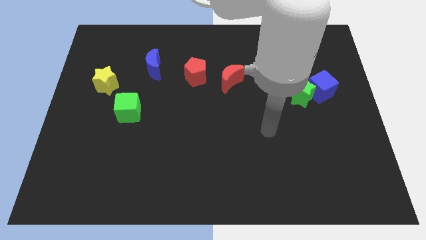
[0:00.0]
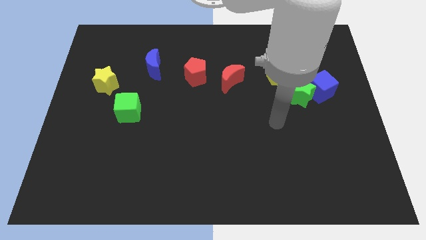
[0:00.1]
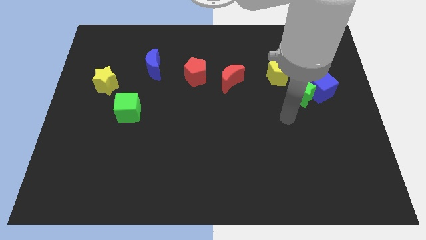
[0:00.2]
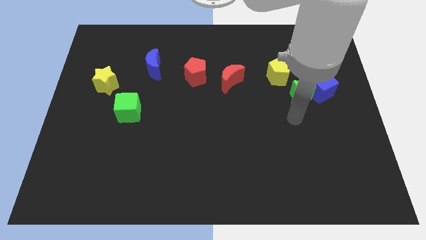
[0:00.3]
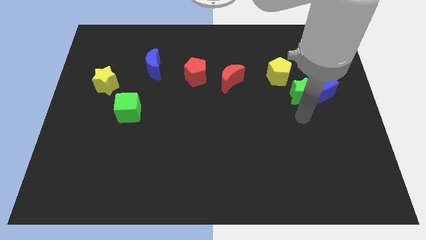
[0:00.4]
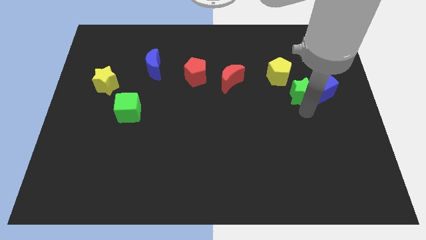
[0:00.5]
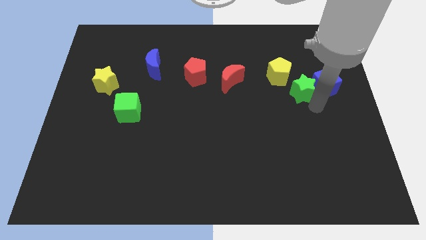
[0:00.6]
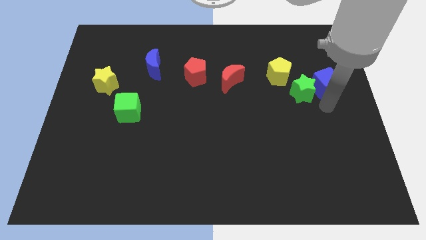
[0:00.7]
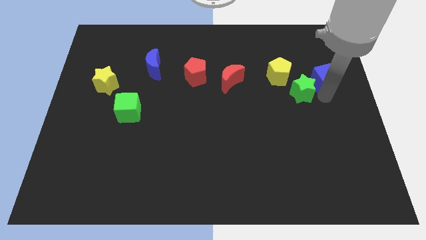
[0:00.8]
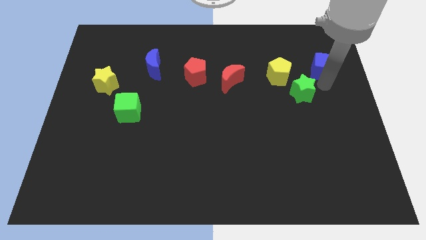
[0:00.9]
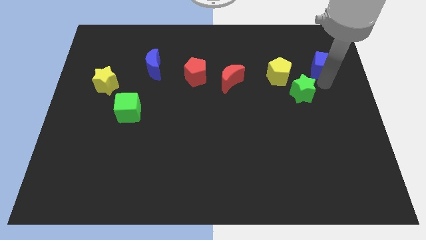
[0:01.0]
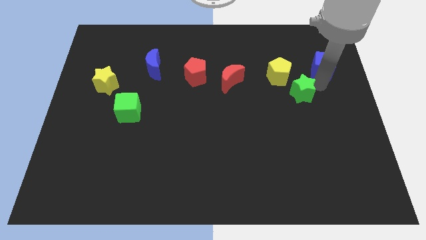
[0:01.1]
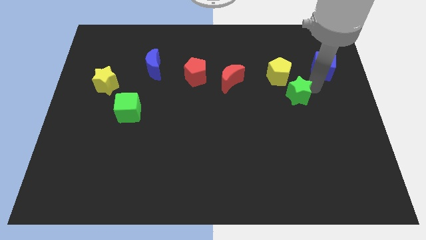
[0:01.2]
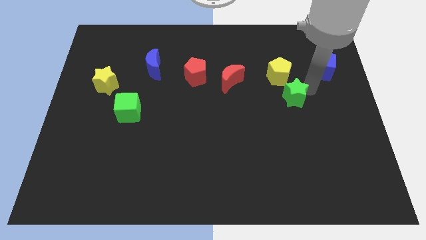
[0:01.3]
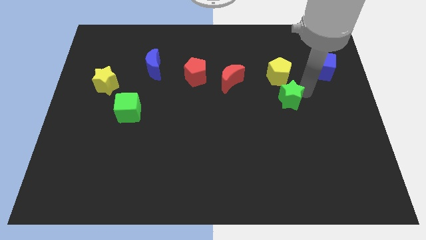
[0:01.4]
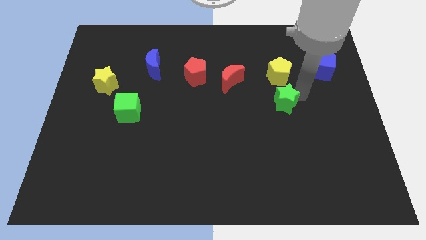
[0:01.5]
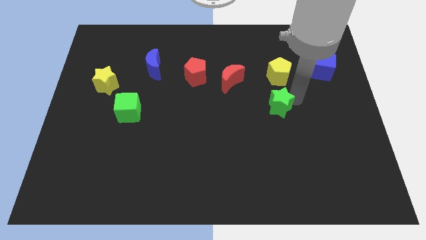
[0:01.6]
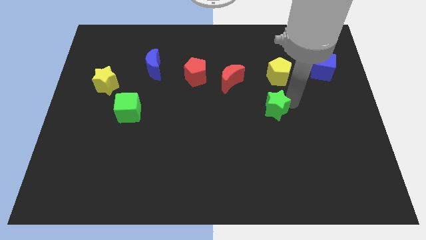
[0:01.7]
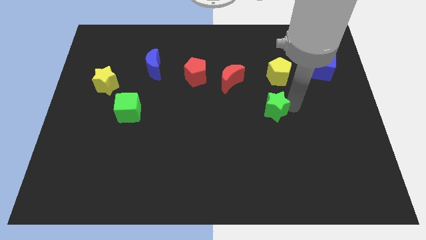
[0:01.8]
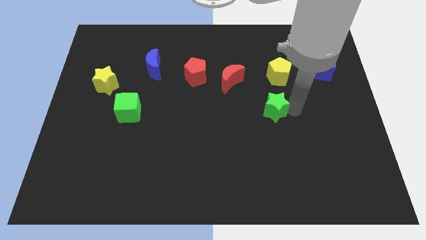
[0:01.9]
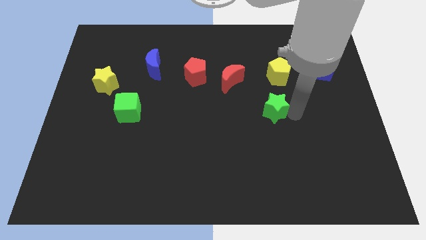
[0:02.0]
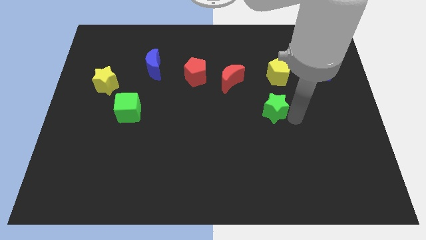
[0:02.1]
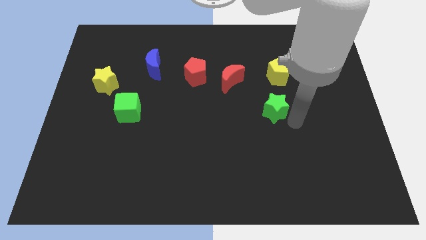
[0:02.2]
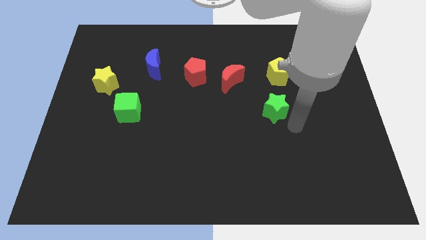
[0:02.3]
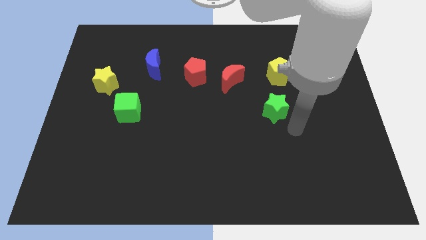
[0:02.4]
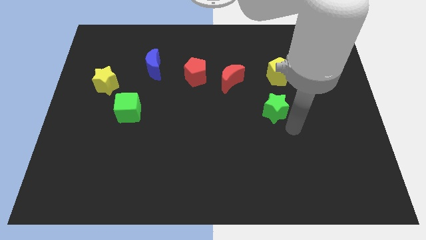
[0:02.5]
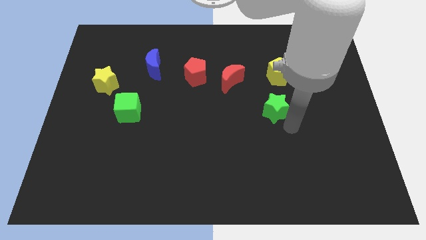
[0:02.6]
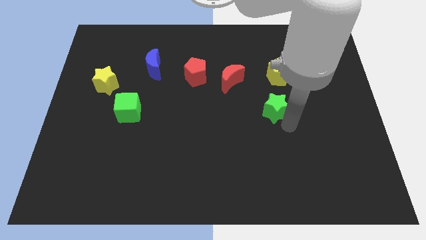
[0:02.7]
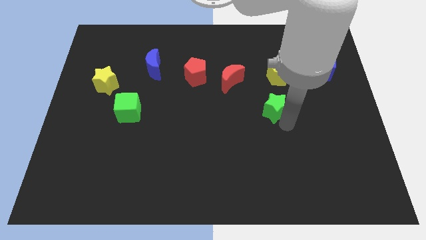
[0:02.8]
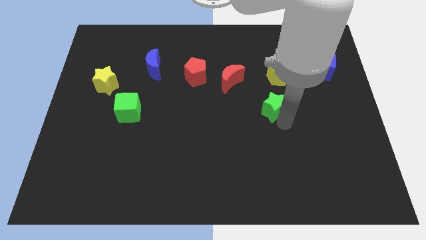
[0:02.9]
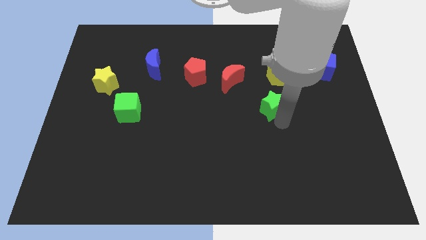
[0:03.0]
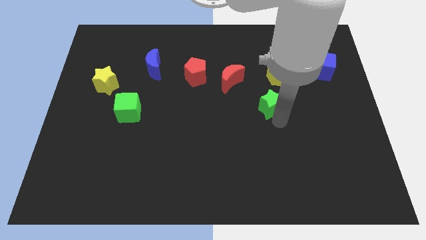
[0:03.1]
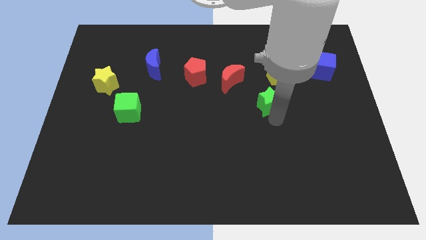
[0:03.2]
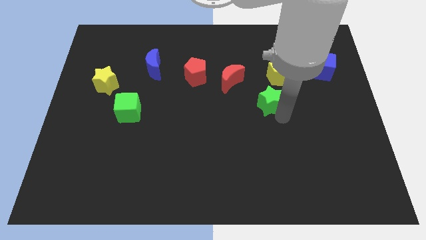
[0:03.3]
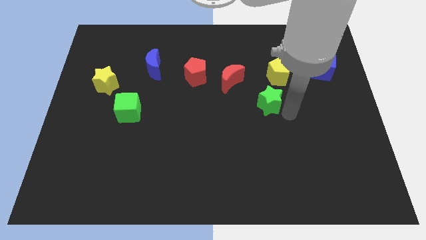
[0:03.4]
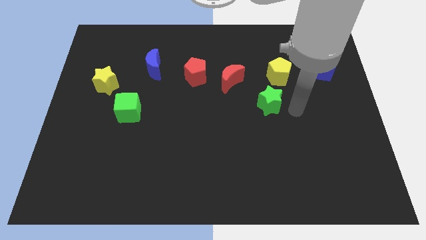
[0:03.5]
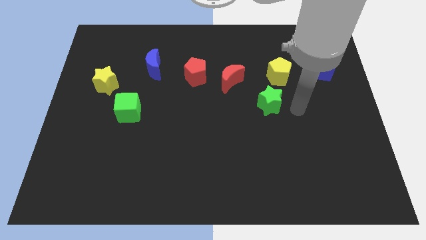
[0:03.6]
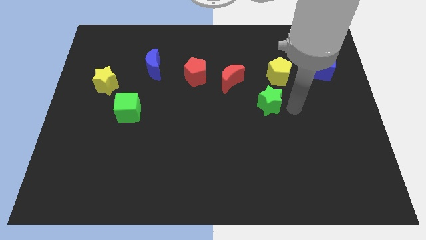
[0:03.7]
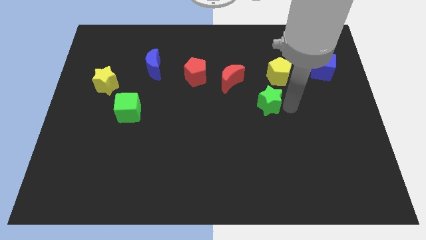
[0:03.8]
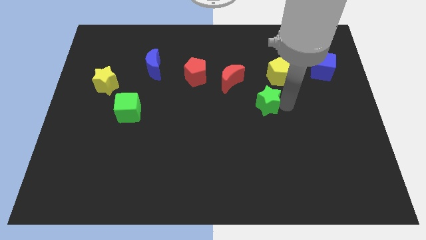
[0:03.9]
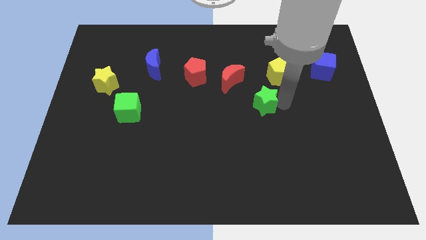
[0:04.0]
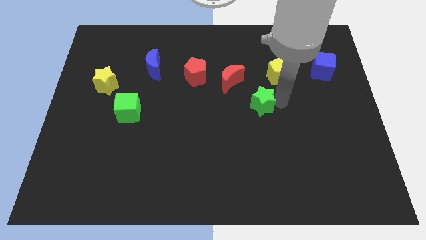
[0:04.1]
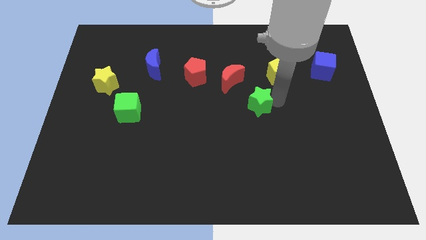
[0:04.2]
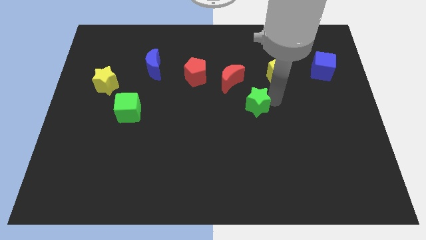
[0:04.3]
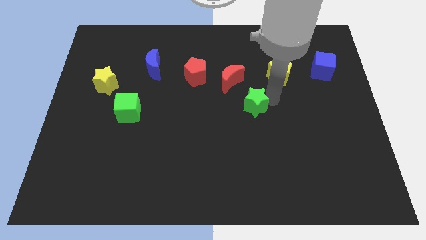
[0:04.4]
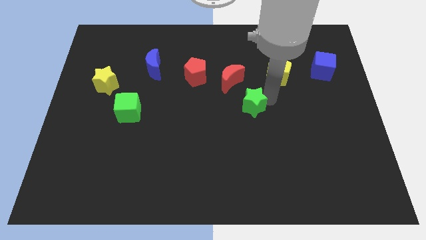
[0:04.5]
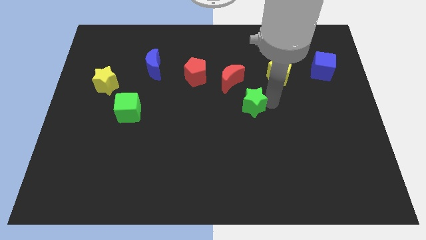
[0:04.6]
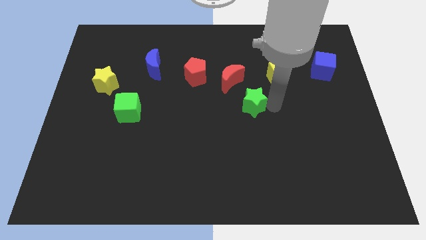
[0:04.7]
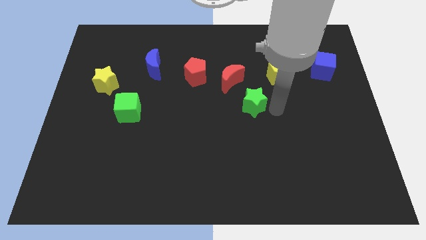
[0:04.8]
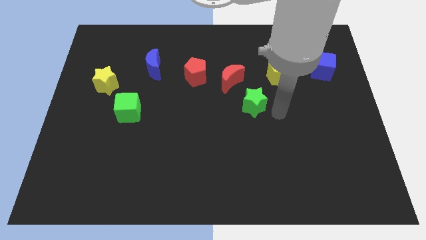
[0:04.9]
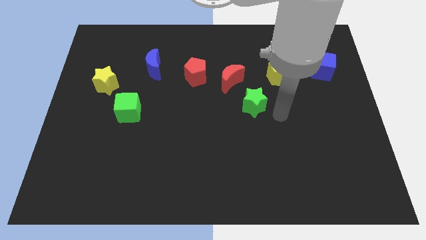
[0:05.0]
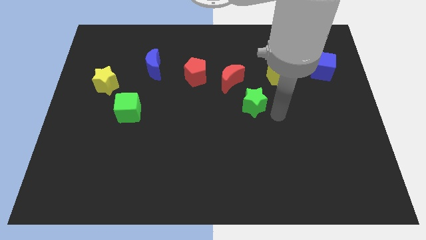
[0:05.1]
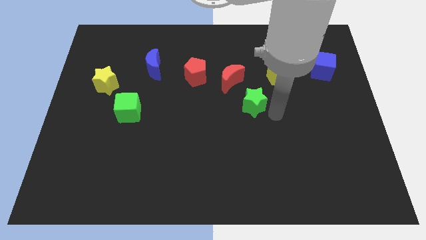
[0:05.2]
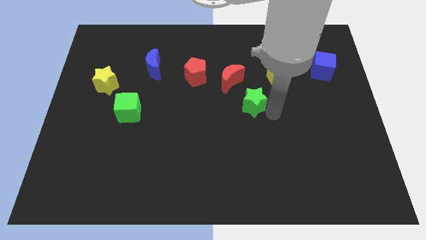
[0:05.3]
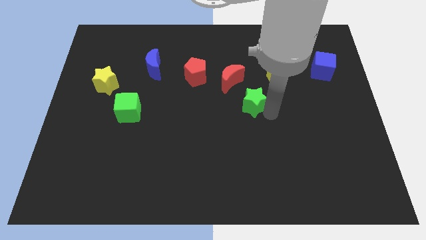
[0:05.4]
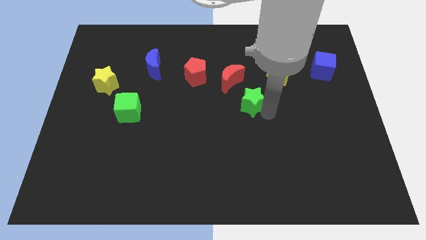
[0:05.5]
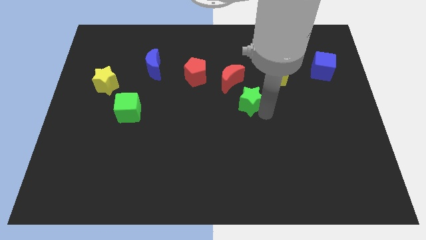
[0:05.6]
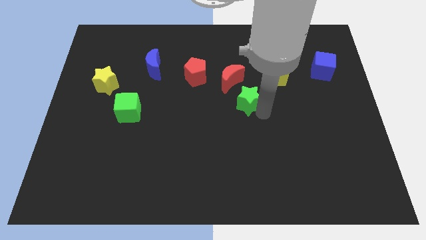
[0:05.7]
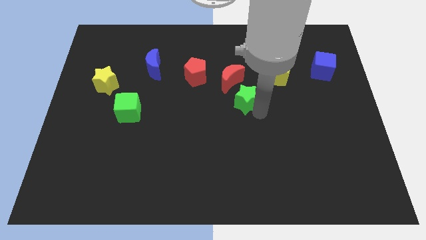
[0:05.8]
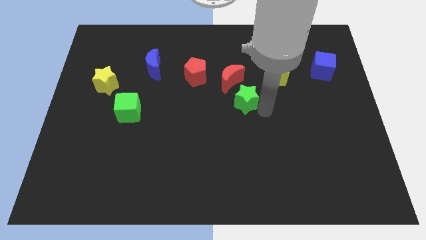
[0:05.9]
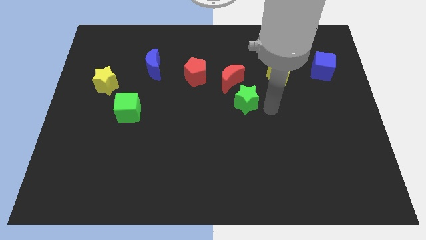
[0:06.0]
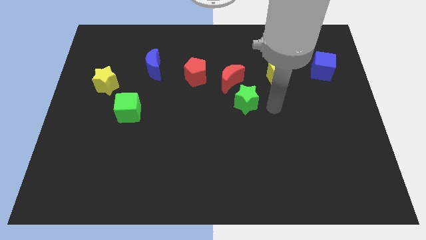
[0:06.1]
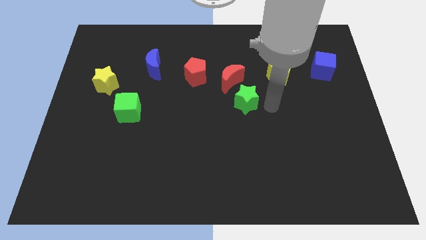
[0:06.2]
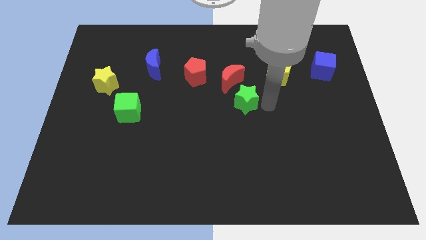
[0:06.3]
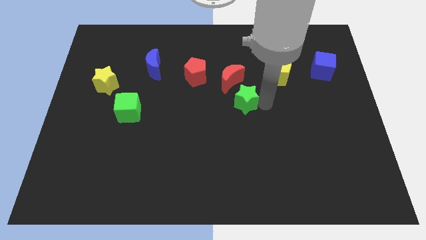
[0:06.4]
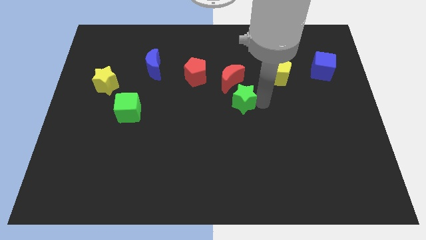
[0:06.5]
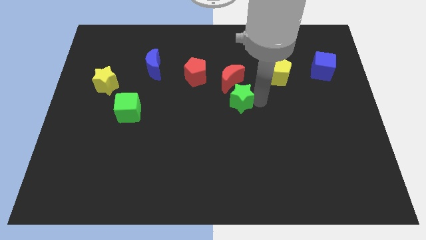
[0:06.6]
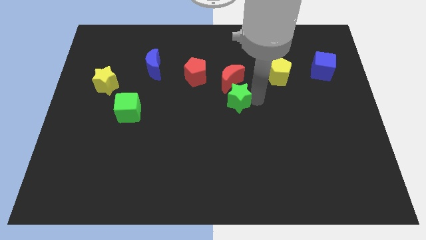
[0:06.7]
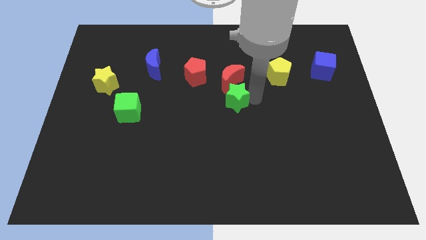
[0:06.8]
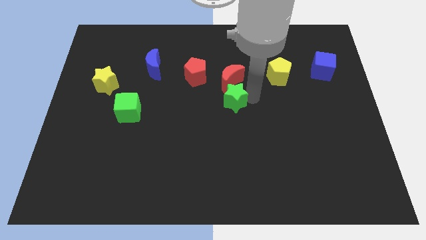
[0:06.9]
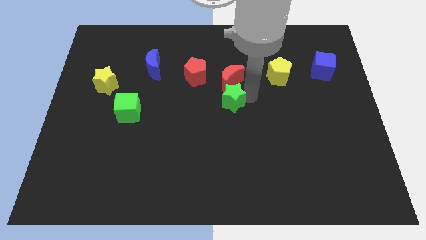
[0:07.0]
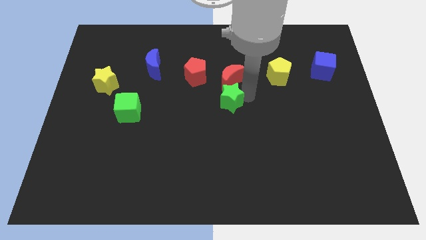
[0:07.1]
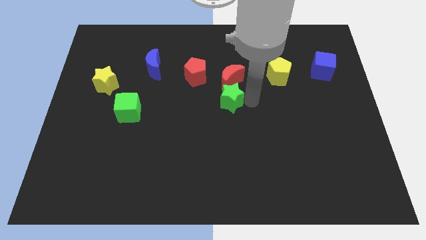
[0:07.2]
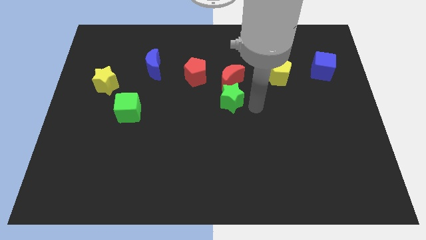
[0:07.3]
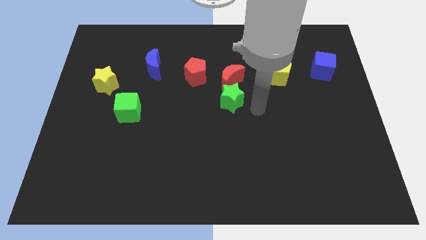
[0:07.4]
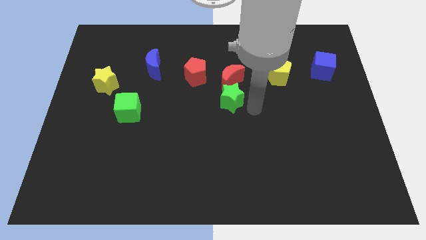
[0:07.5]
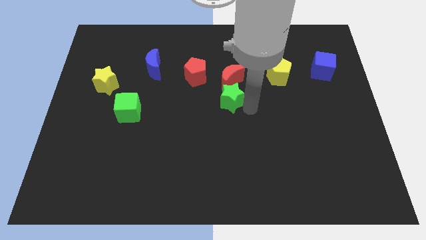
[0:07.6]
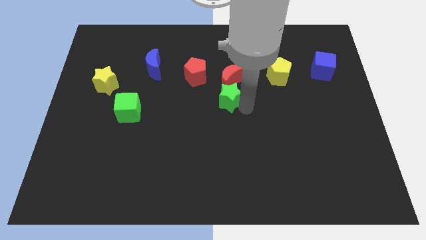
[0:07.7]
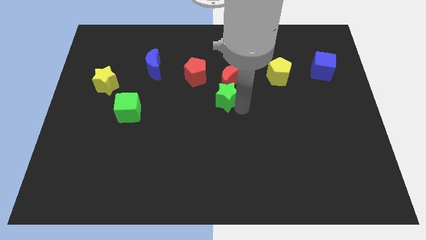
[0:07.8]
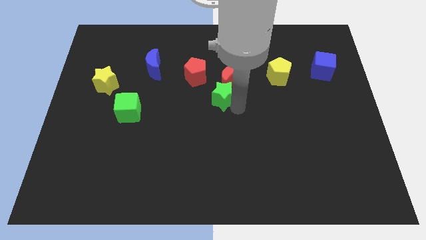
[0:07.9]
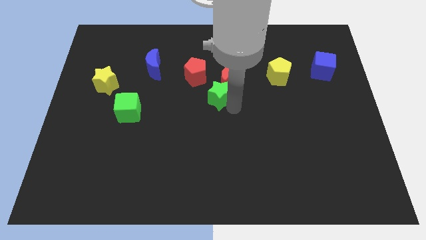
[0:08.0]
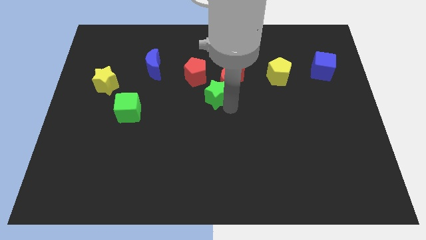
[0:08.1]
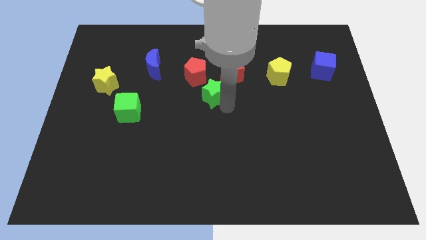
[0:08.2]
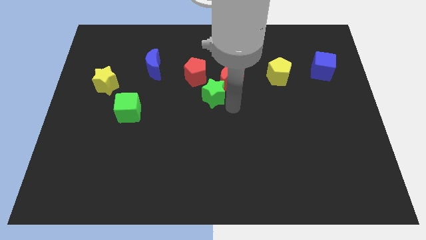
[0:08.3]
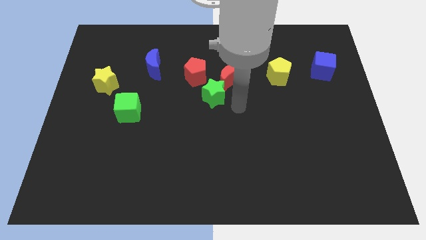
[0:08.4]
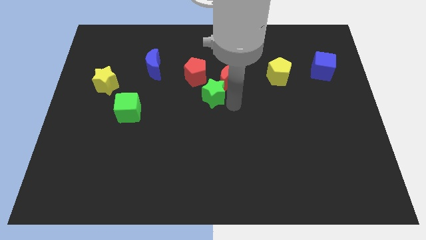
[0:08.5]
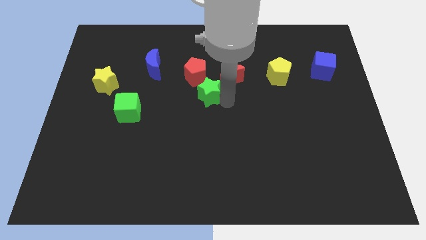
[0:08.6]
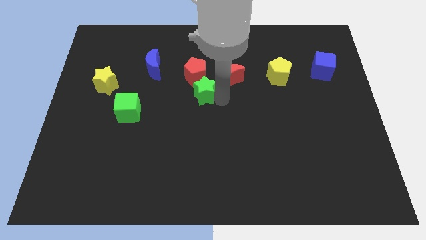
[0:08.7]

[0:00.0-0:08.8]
push the green star just left of the red moon
